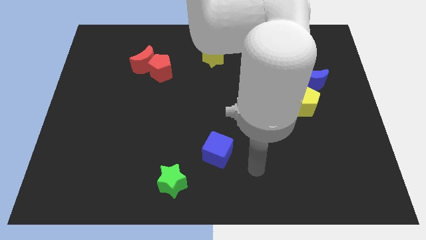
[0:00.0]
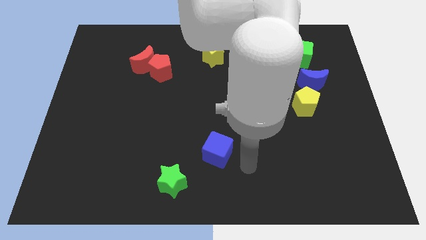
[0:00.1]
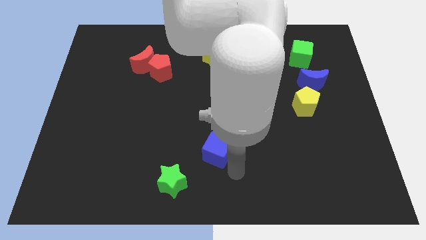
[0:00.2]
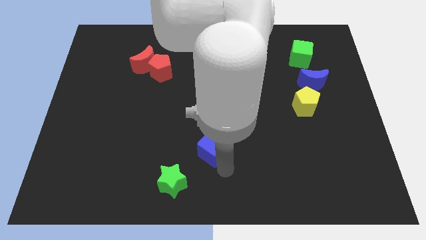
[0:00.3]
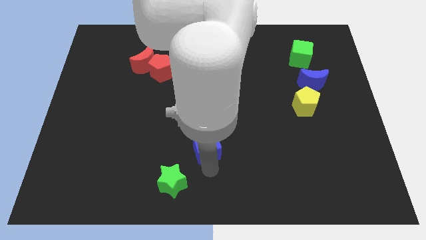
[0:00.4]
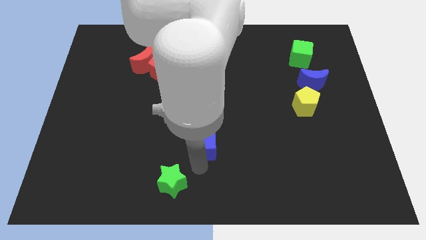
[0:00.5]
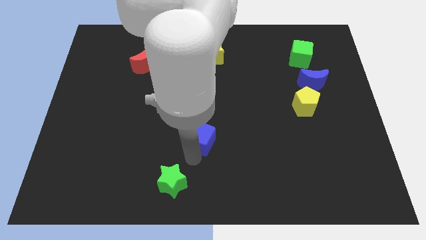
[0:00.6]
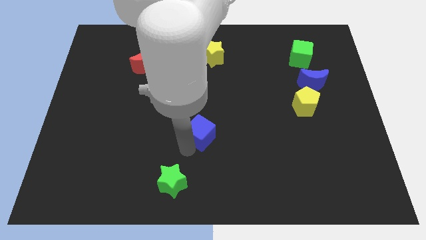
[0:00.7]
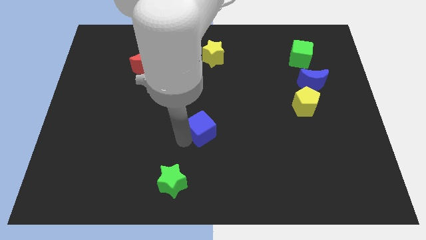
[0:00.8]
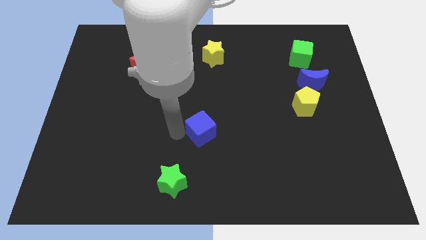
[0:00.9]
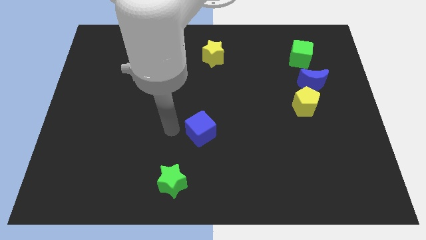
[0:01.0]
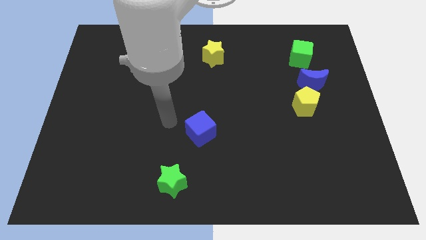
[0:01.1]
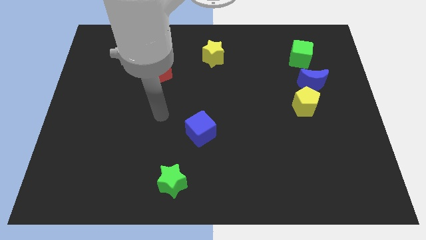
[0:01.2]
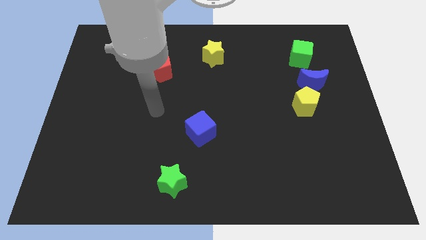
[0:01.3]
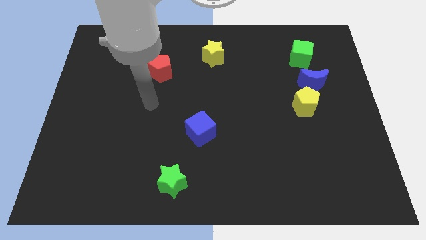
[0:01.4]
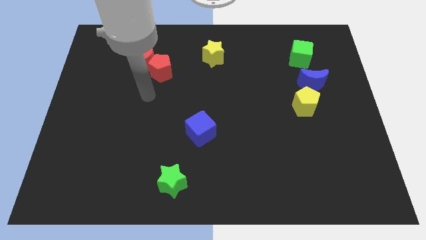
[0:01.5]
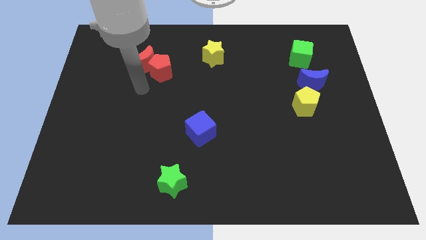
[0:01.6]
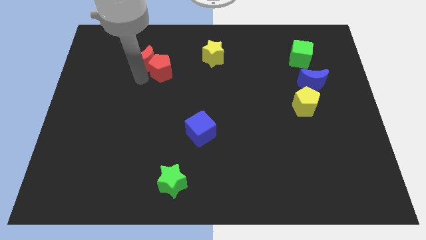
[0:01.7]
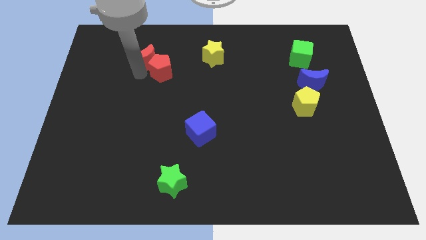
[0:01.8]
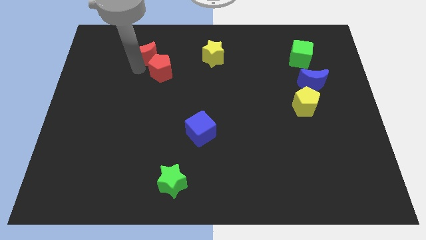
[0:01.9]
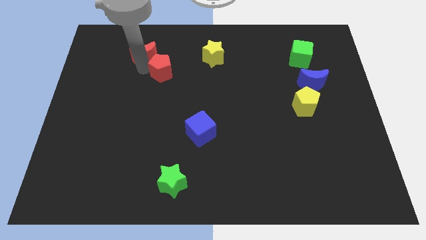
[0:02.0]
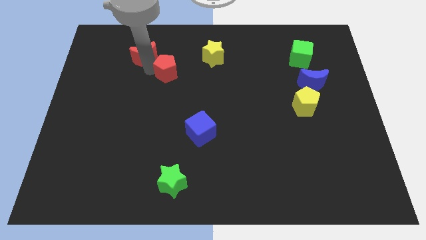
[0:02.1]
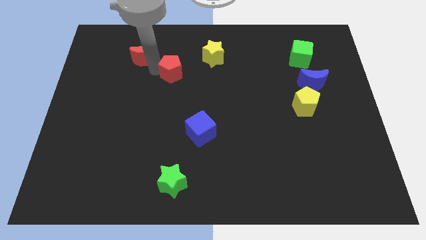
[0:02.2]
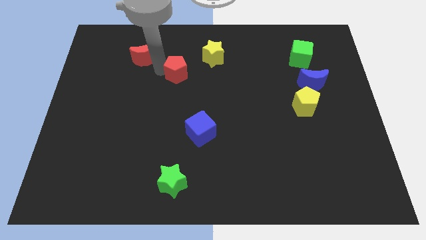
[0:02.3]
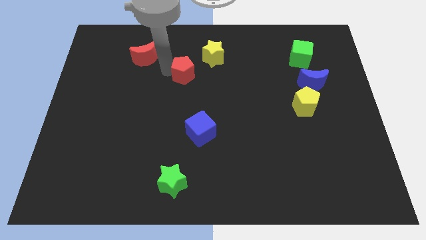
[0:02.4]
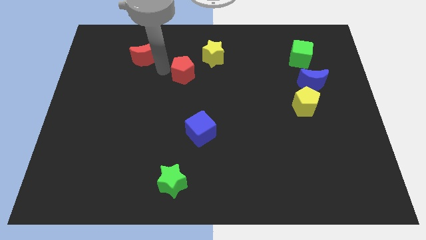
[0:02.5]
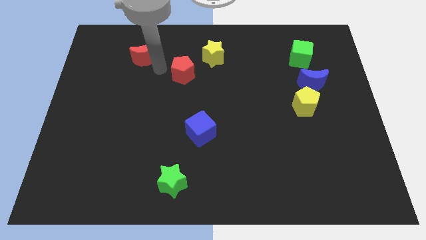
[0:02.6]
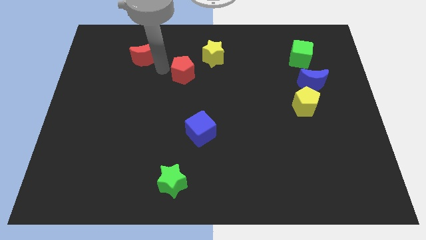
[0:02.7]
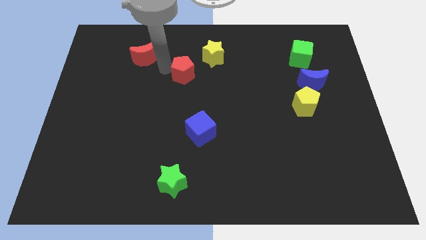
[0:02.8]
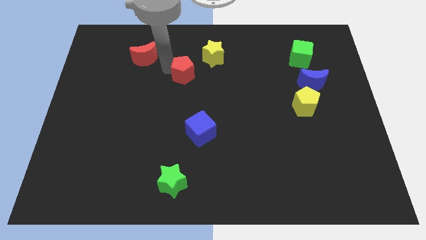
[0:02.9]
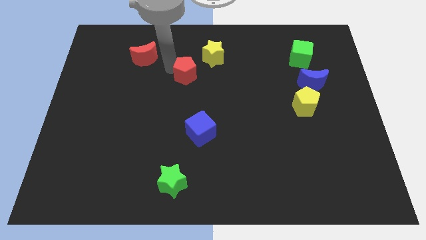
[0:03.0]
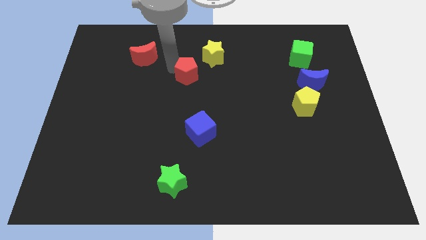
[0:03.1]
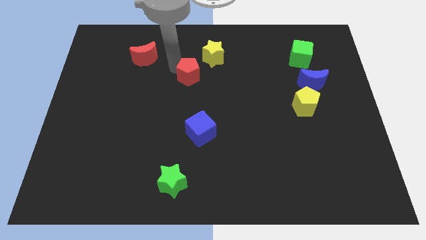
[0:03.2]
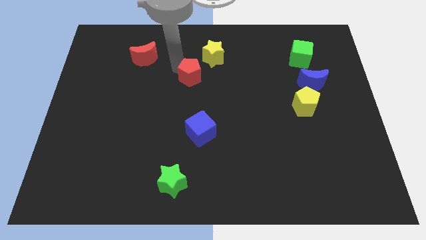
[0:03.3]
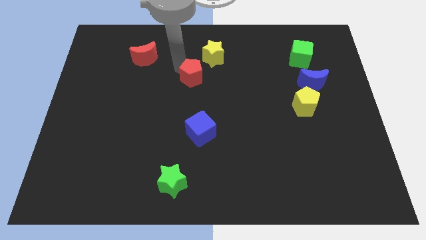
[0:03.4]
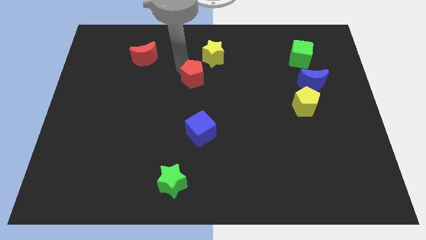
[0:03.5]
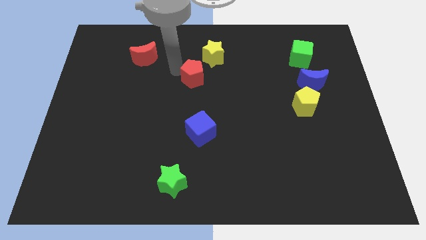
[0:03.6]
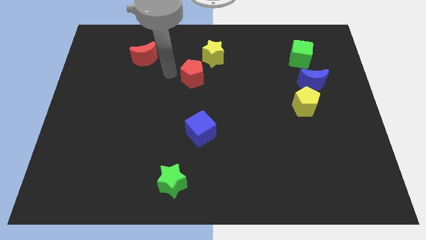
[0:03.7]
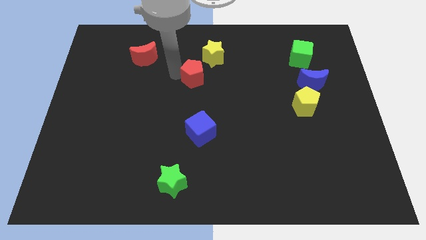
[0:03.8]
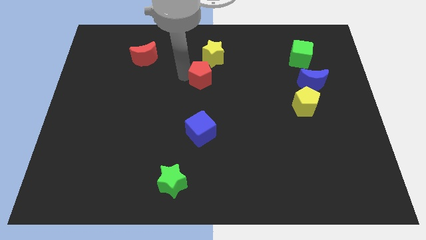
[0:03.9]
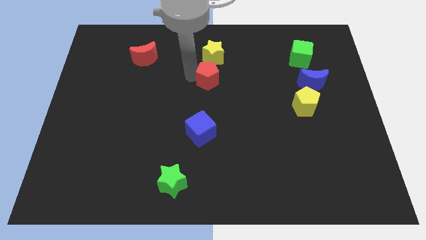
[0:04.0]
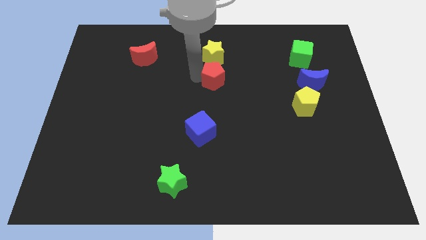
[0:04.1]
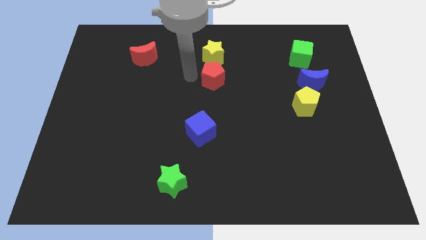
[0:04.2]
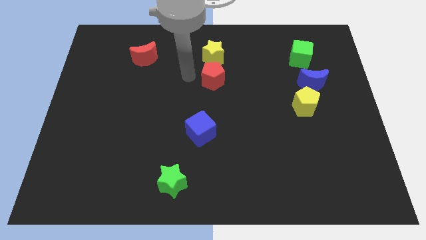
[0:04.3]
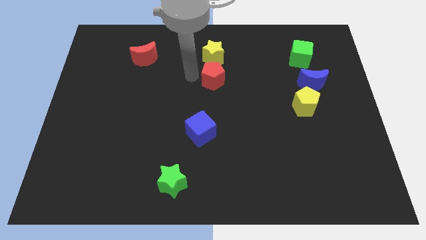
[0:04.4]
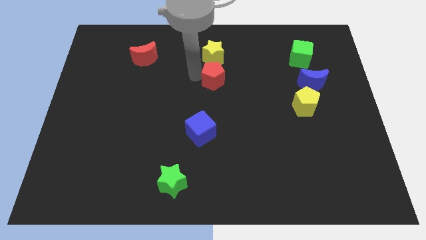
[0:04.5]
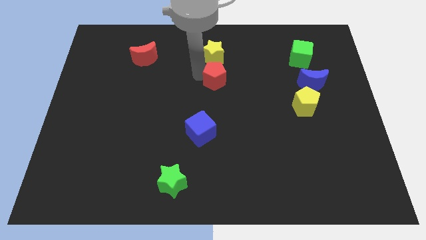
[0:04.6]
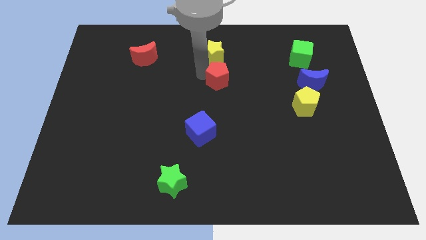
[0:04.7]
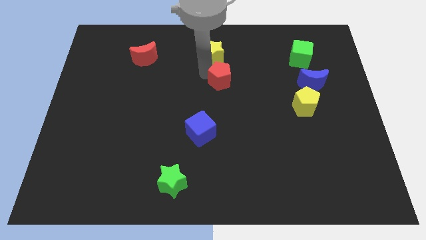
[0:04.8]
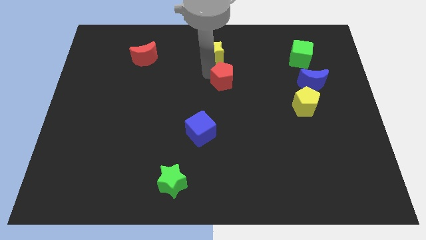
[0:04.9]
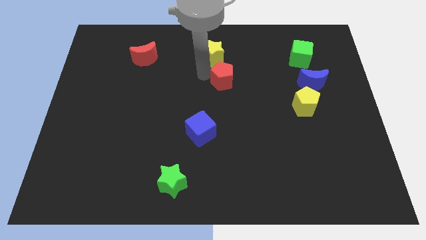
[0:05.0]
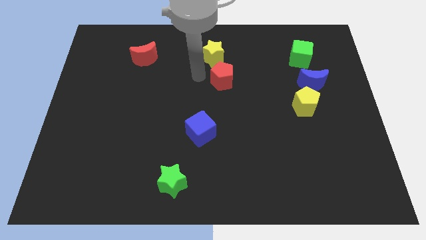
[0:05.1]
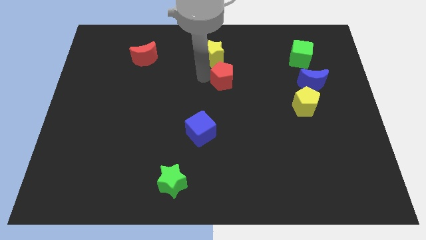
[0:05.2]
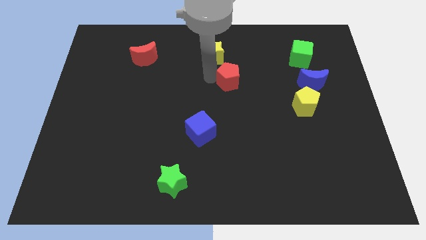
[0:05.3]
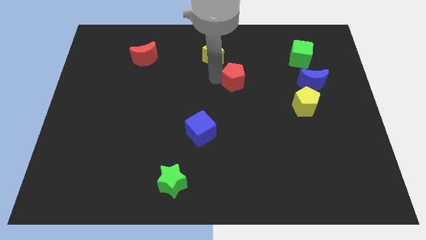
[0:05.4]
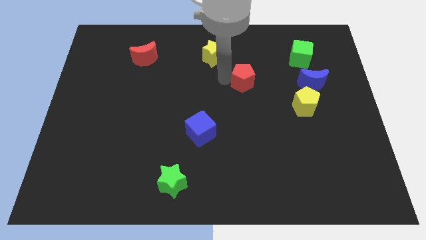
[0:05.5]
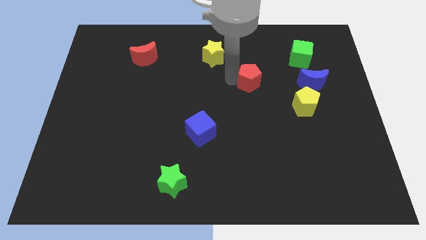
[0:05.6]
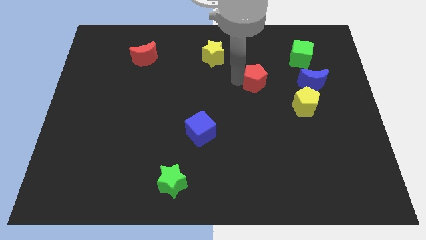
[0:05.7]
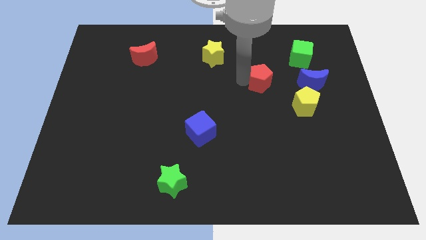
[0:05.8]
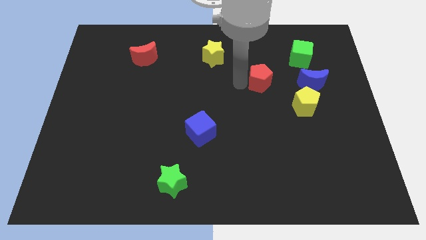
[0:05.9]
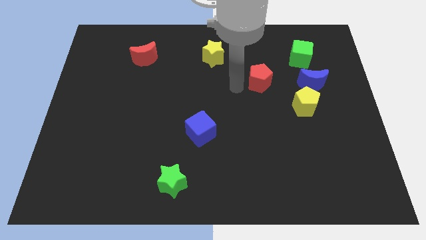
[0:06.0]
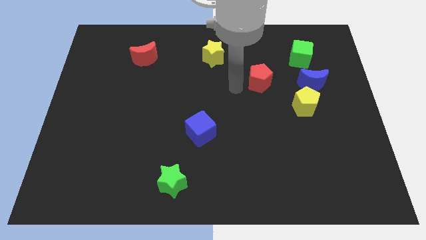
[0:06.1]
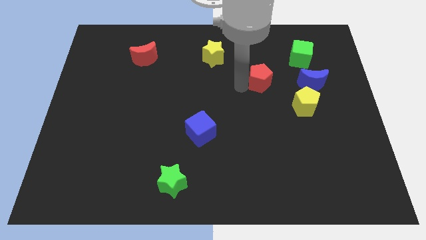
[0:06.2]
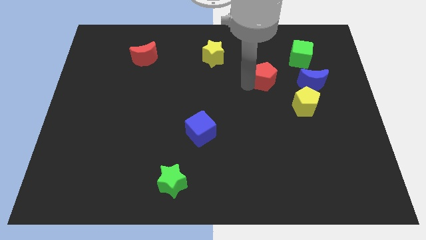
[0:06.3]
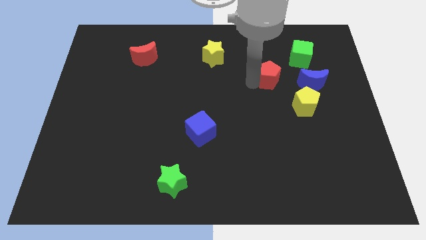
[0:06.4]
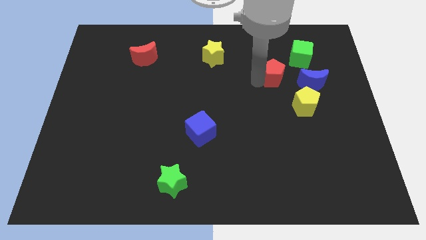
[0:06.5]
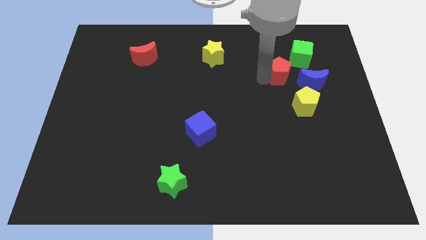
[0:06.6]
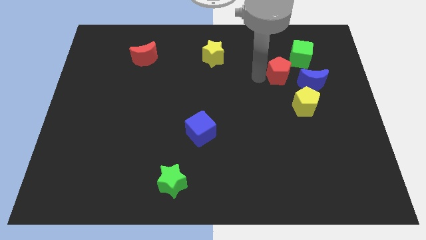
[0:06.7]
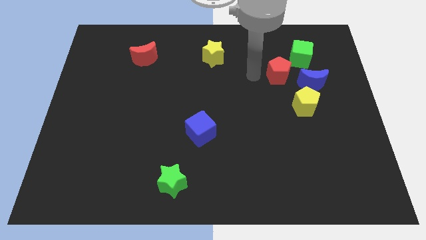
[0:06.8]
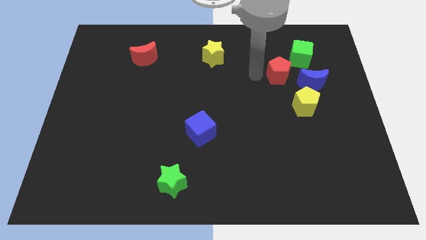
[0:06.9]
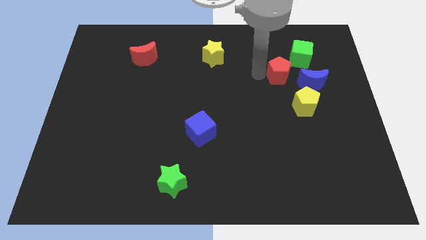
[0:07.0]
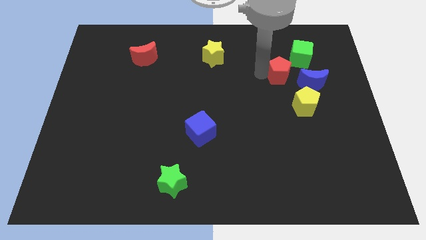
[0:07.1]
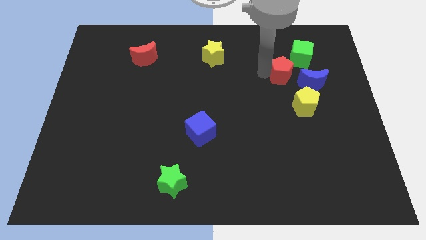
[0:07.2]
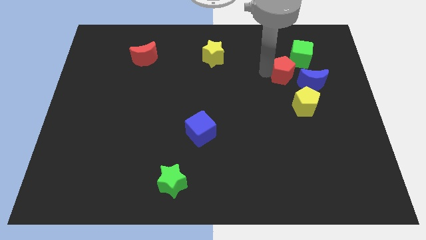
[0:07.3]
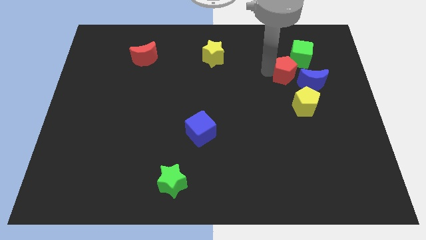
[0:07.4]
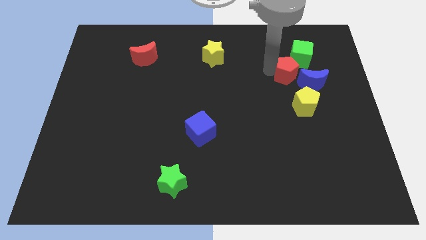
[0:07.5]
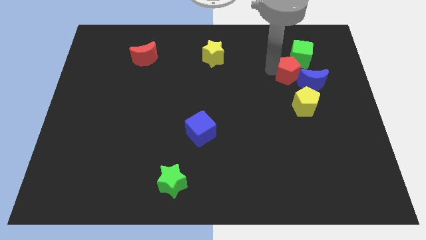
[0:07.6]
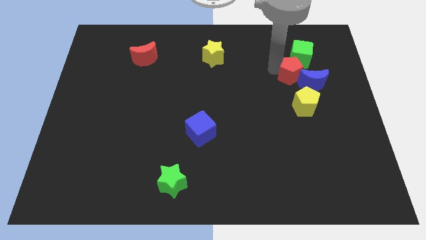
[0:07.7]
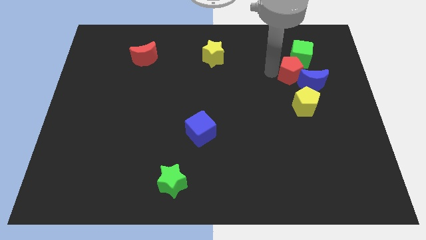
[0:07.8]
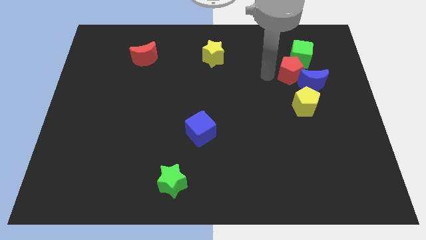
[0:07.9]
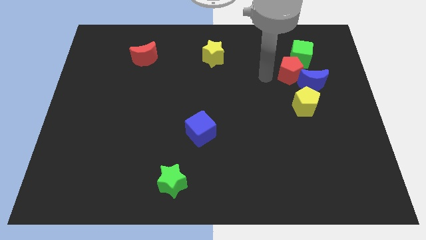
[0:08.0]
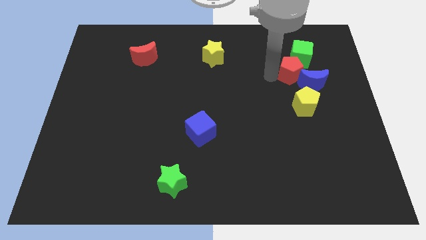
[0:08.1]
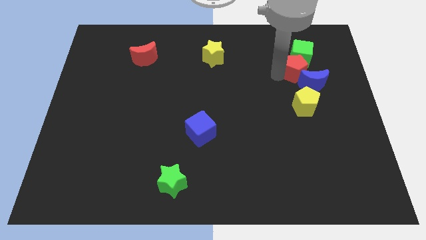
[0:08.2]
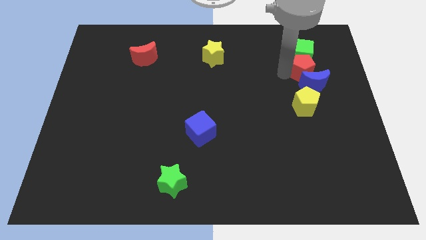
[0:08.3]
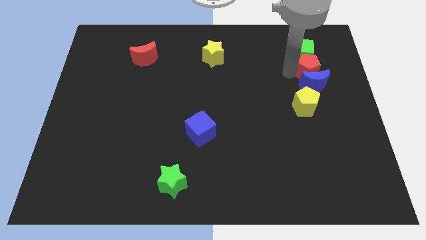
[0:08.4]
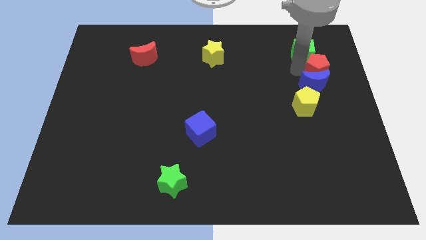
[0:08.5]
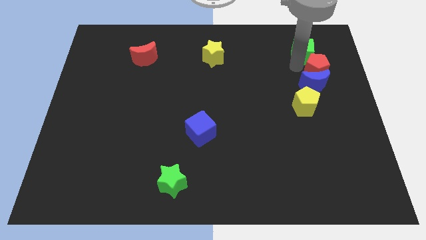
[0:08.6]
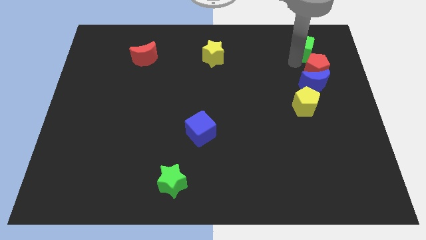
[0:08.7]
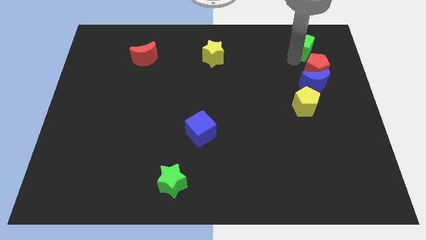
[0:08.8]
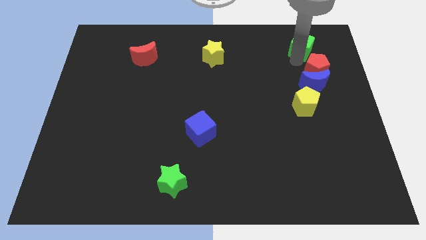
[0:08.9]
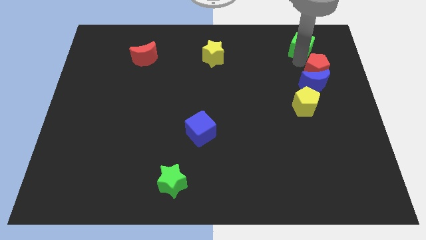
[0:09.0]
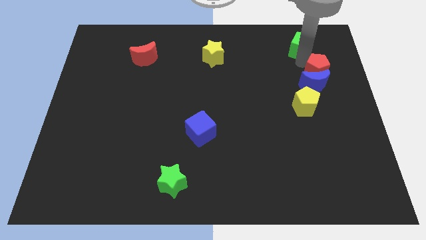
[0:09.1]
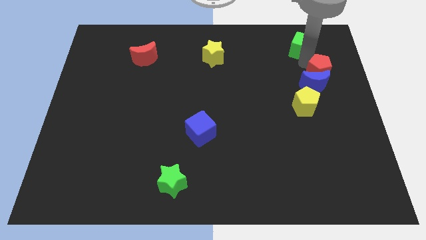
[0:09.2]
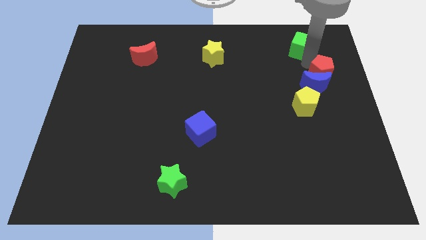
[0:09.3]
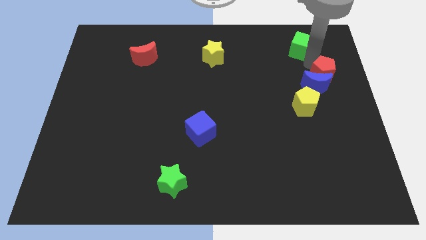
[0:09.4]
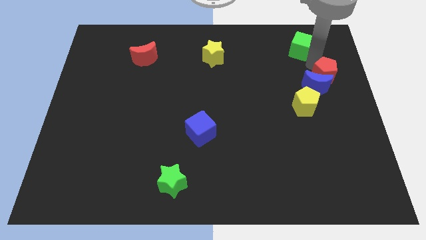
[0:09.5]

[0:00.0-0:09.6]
slide the red pentagon to the center right
